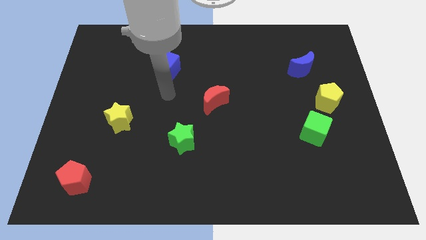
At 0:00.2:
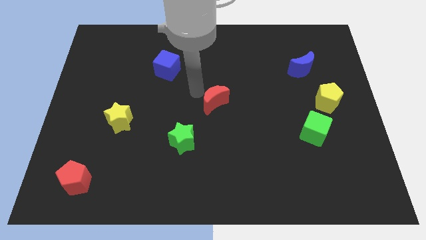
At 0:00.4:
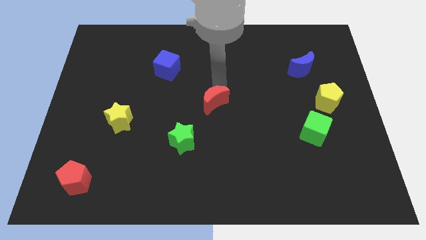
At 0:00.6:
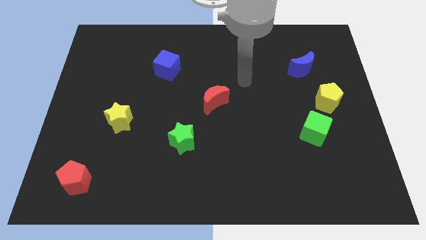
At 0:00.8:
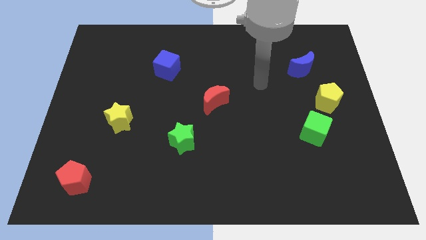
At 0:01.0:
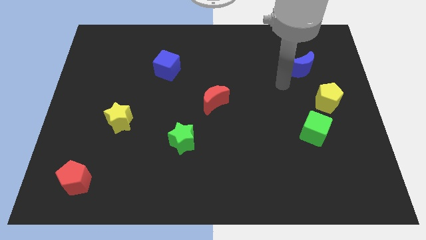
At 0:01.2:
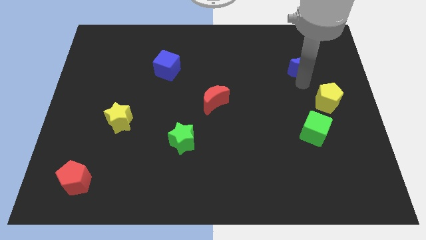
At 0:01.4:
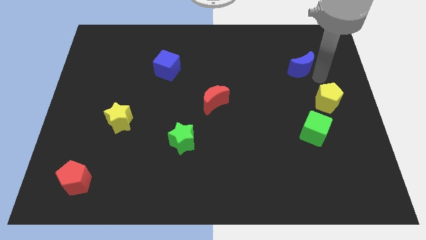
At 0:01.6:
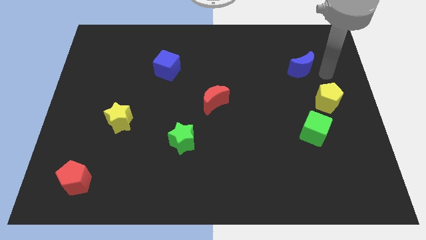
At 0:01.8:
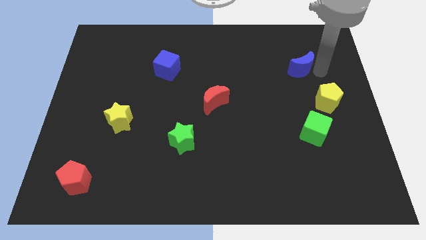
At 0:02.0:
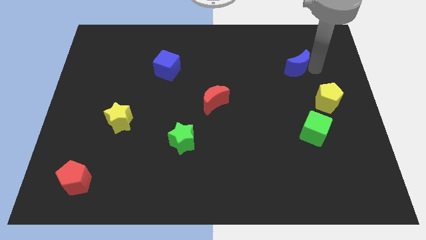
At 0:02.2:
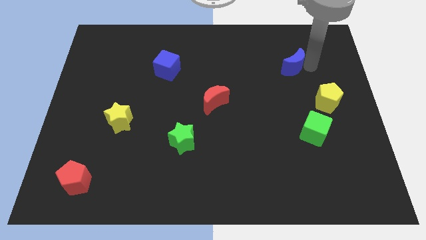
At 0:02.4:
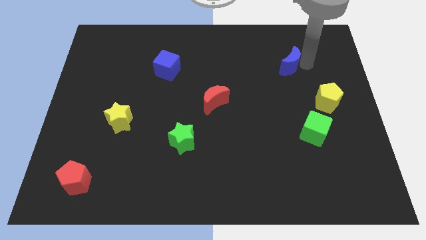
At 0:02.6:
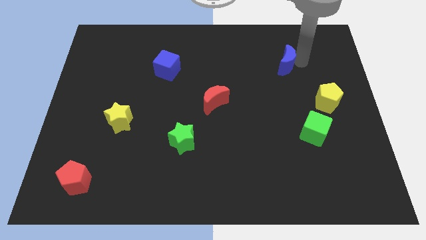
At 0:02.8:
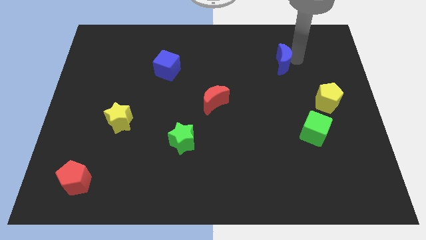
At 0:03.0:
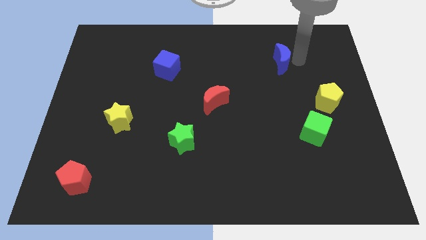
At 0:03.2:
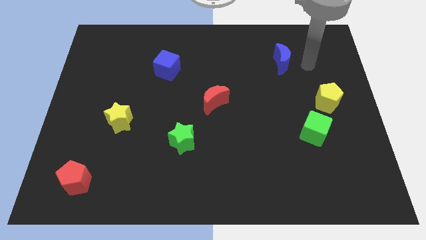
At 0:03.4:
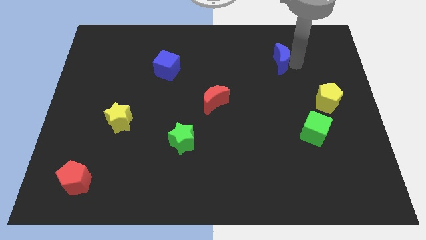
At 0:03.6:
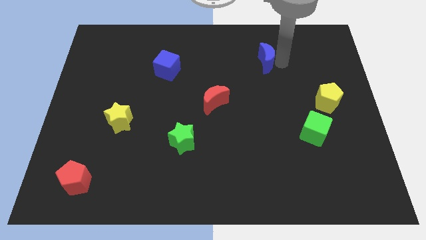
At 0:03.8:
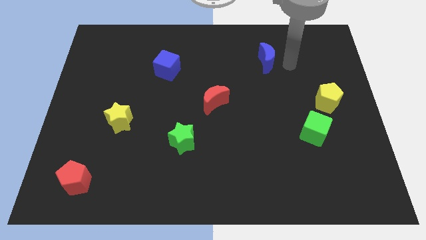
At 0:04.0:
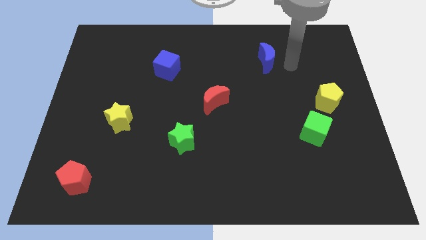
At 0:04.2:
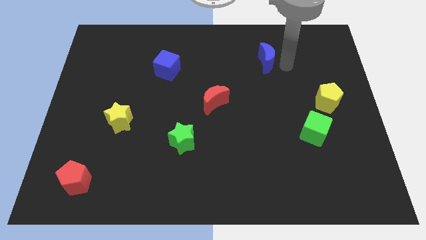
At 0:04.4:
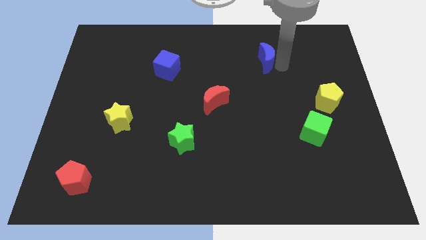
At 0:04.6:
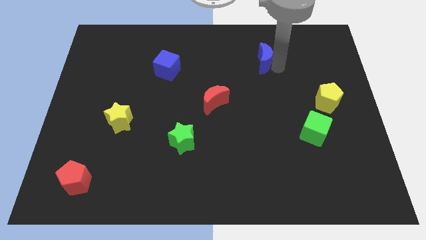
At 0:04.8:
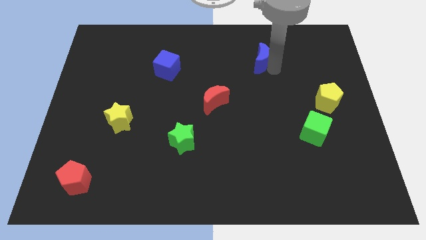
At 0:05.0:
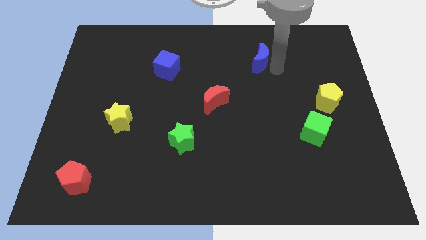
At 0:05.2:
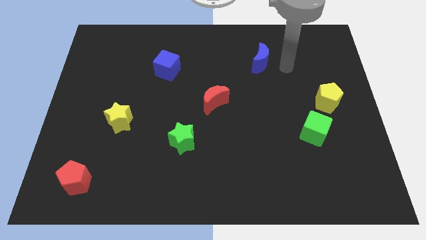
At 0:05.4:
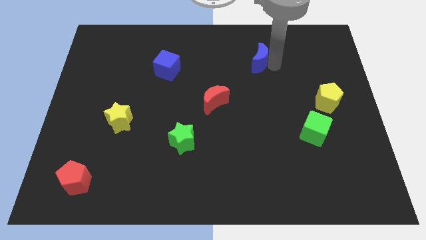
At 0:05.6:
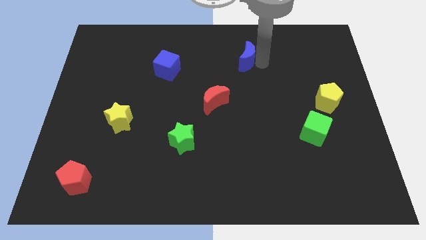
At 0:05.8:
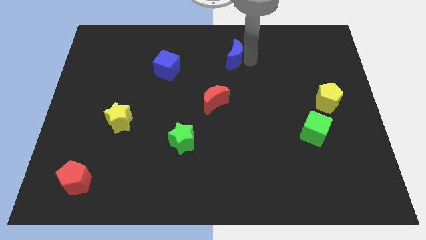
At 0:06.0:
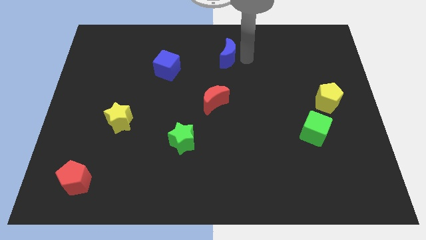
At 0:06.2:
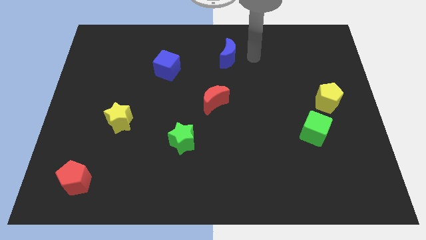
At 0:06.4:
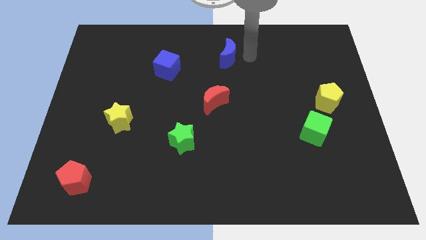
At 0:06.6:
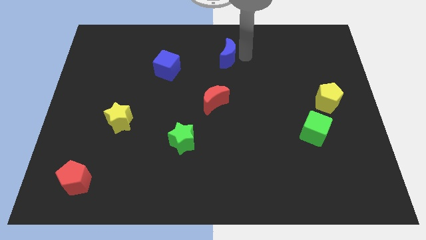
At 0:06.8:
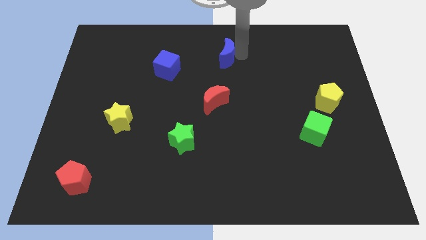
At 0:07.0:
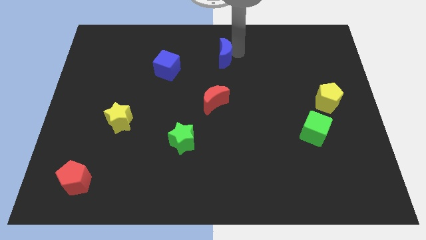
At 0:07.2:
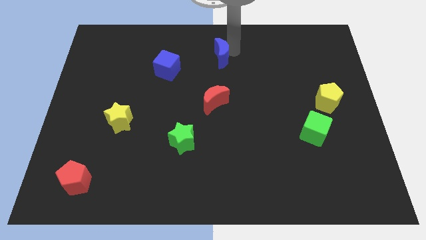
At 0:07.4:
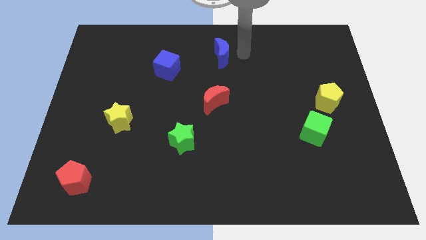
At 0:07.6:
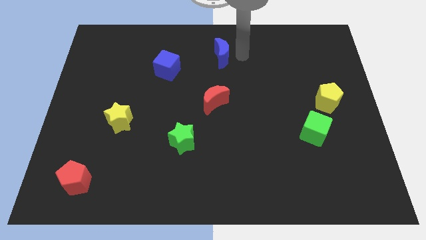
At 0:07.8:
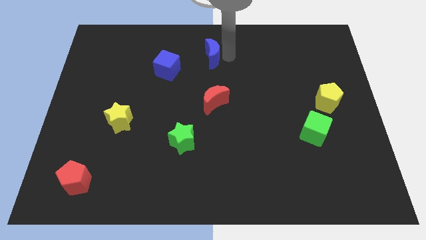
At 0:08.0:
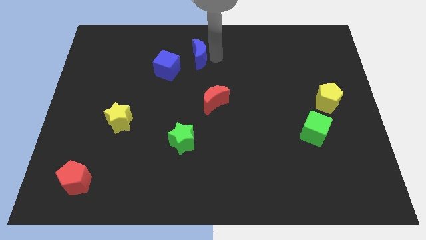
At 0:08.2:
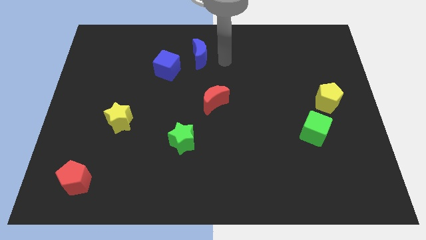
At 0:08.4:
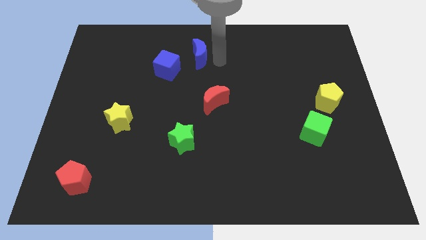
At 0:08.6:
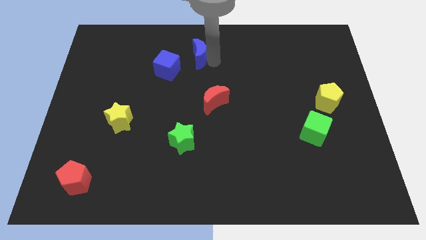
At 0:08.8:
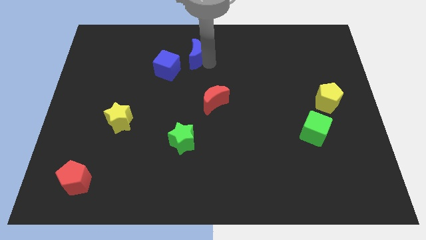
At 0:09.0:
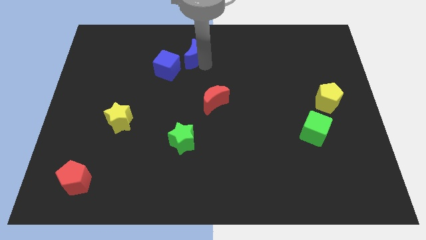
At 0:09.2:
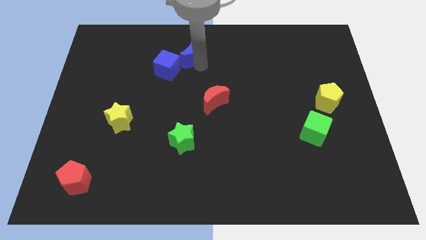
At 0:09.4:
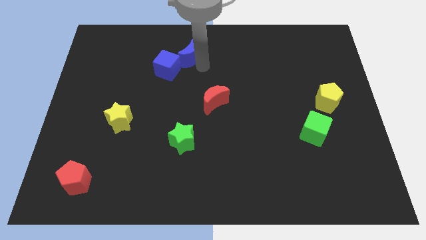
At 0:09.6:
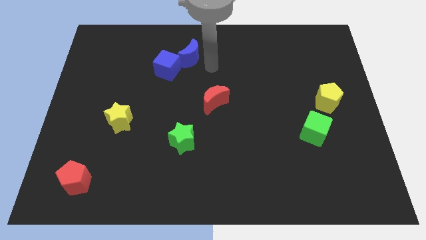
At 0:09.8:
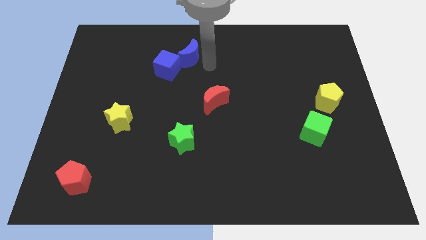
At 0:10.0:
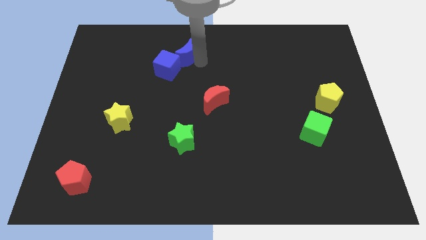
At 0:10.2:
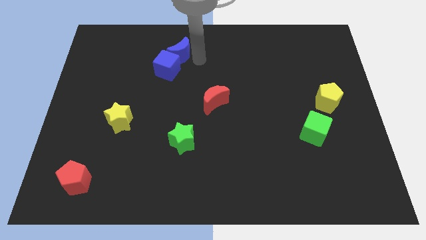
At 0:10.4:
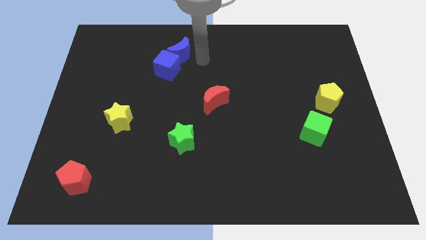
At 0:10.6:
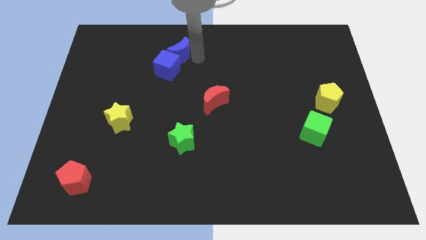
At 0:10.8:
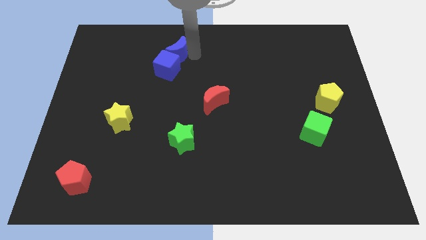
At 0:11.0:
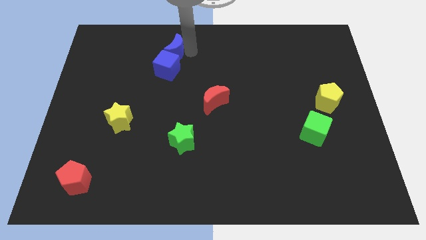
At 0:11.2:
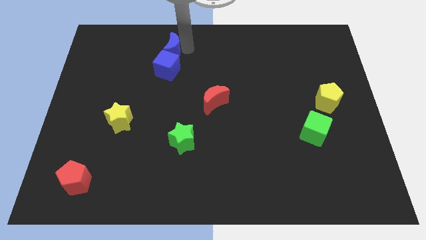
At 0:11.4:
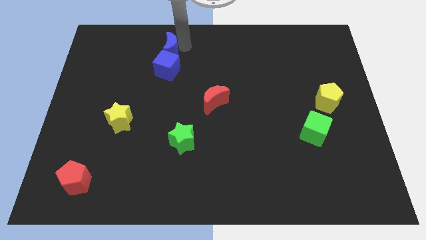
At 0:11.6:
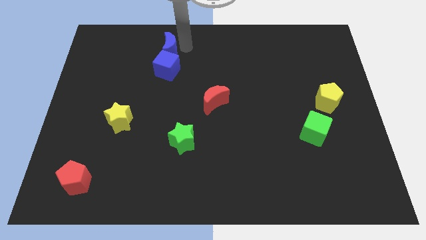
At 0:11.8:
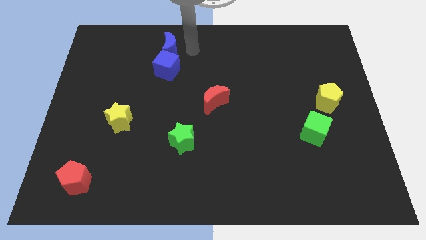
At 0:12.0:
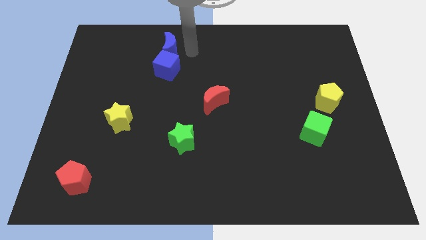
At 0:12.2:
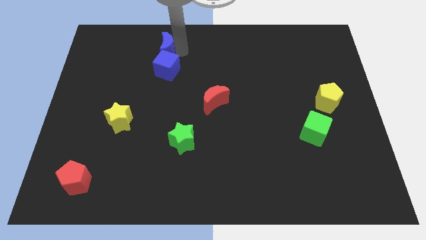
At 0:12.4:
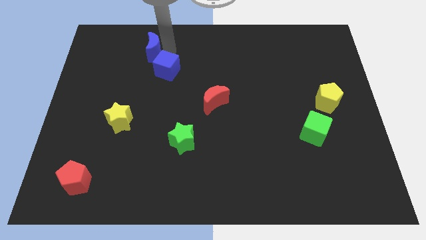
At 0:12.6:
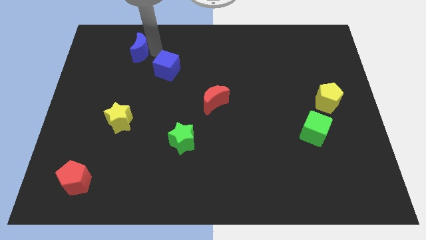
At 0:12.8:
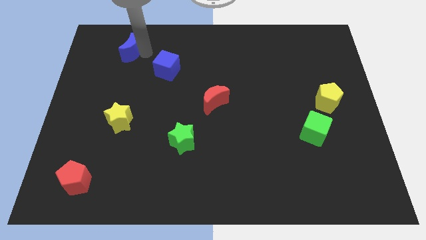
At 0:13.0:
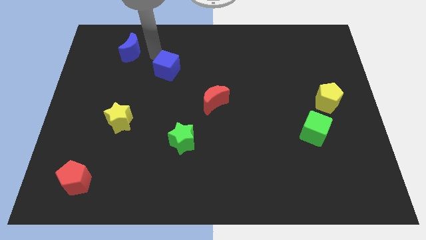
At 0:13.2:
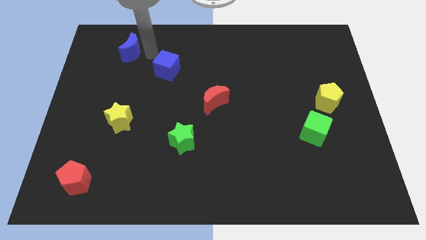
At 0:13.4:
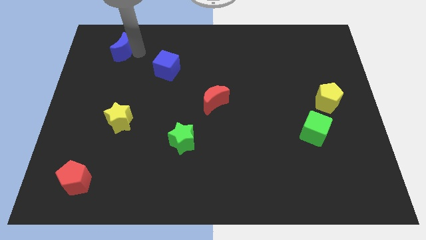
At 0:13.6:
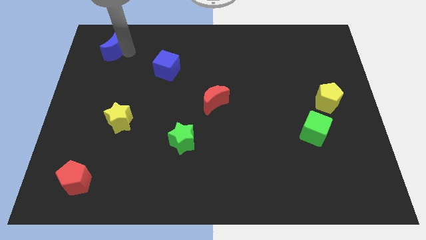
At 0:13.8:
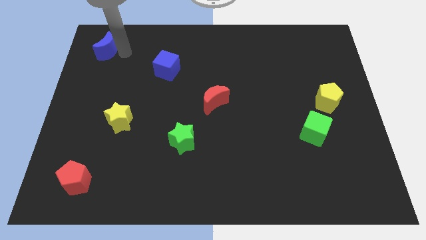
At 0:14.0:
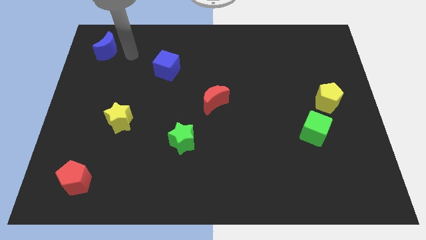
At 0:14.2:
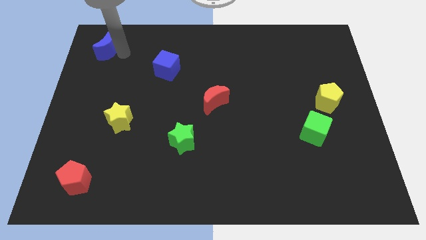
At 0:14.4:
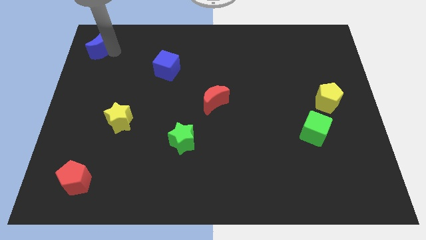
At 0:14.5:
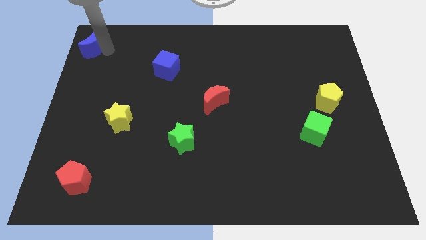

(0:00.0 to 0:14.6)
push the blue moon to the top left corner
